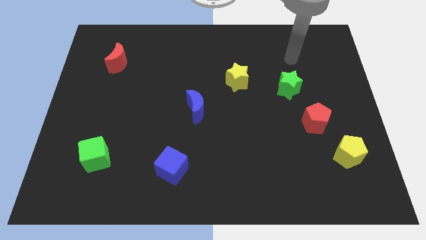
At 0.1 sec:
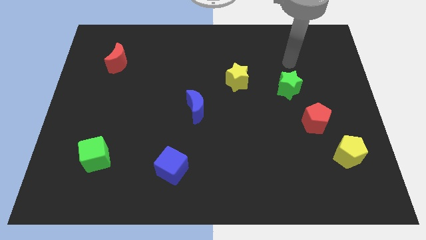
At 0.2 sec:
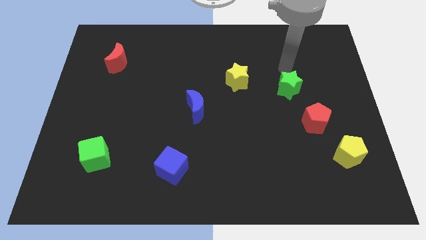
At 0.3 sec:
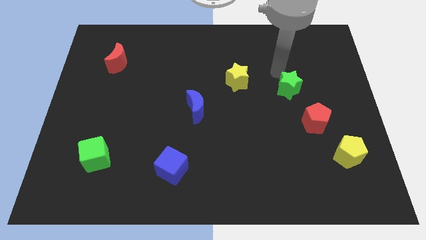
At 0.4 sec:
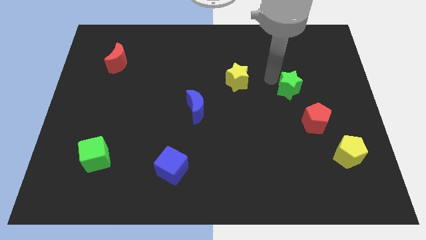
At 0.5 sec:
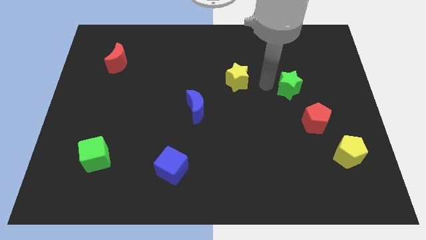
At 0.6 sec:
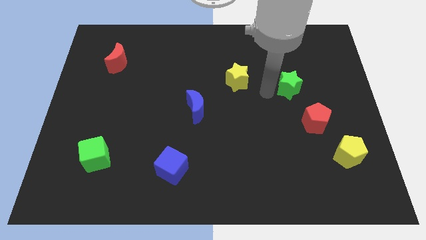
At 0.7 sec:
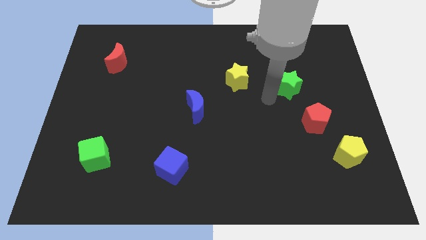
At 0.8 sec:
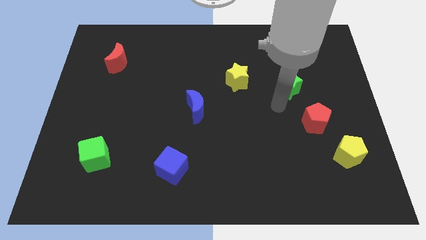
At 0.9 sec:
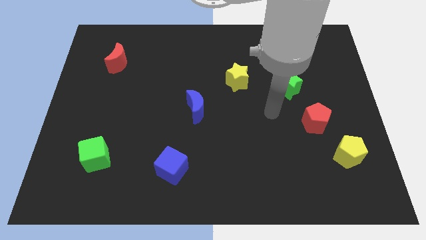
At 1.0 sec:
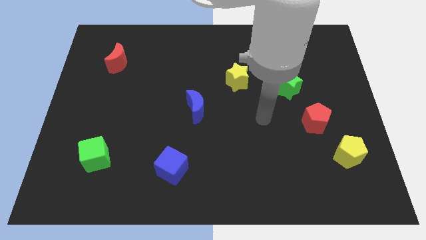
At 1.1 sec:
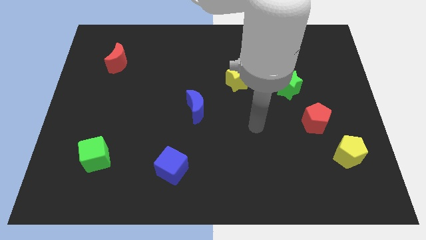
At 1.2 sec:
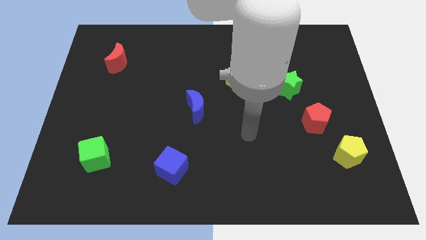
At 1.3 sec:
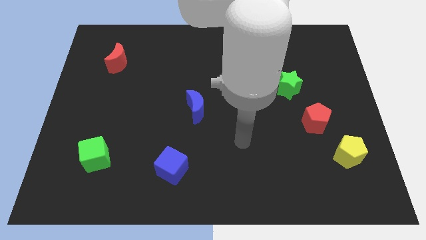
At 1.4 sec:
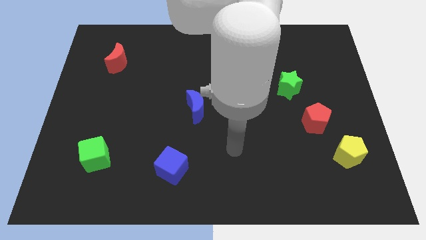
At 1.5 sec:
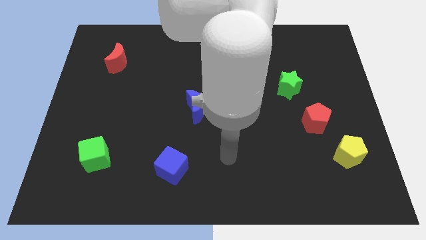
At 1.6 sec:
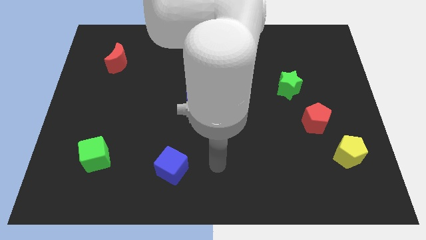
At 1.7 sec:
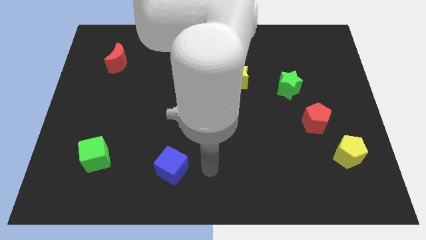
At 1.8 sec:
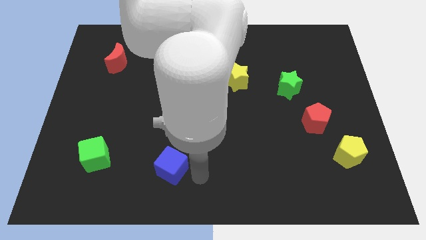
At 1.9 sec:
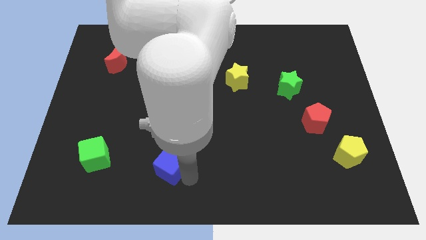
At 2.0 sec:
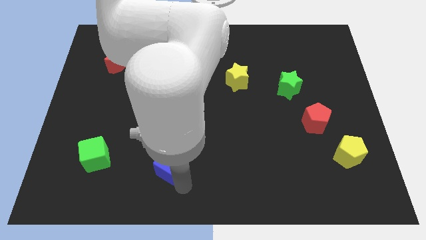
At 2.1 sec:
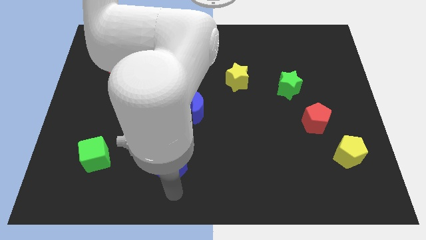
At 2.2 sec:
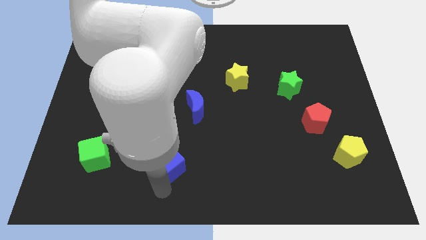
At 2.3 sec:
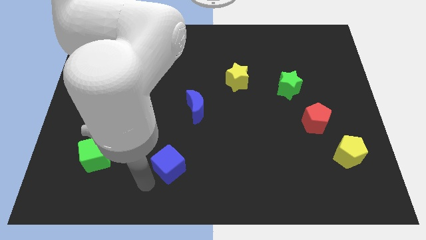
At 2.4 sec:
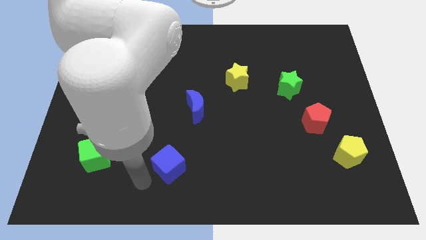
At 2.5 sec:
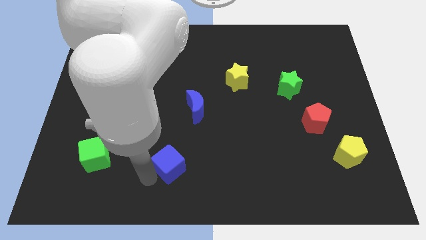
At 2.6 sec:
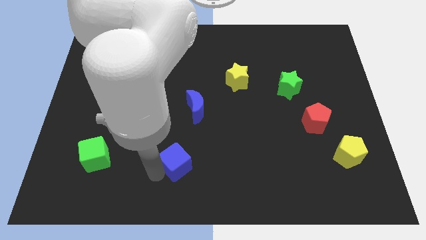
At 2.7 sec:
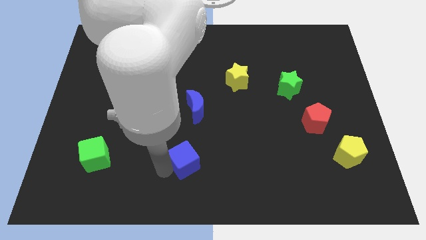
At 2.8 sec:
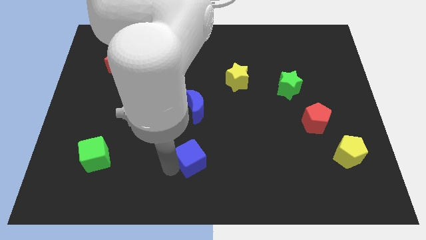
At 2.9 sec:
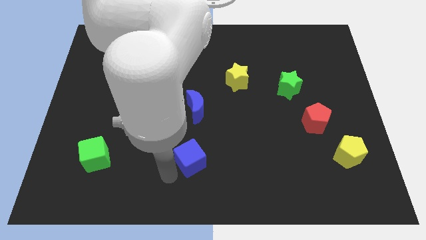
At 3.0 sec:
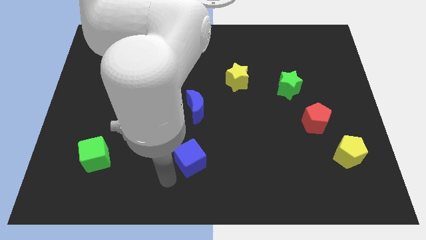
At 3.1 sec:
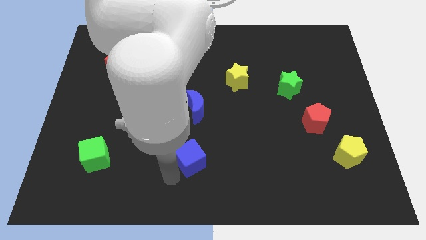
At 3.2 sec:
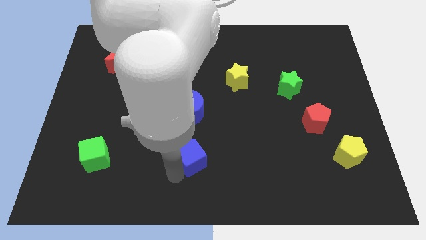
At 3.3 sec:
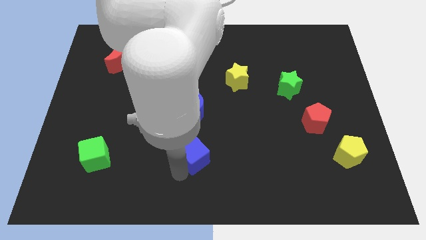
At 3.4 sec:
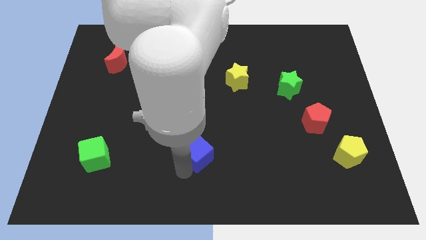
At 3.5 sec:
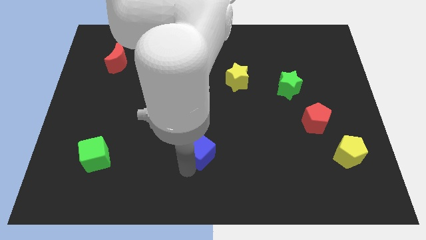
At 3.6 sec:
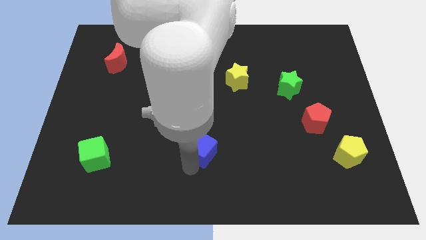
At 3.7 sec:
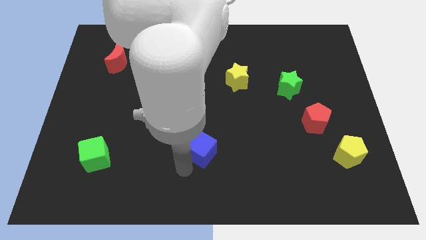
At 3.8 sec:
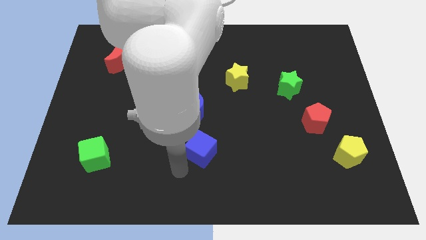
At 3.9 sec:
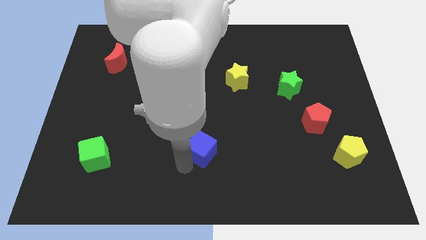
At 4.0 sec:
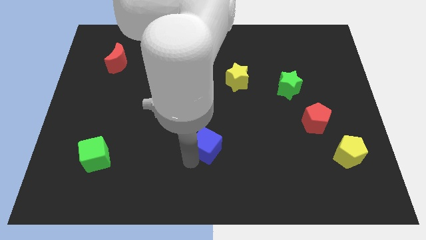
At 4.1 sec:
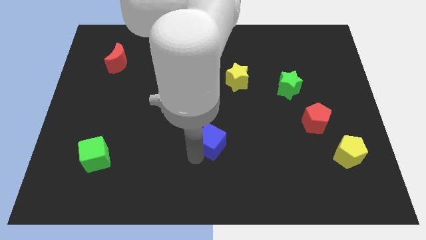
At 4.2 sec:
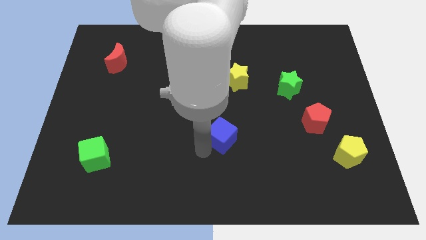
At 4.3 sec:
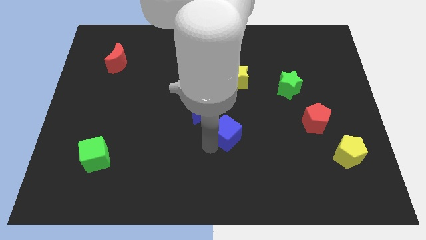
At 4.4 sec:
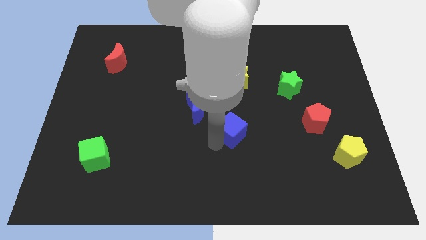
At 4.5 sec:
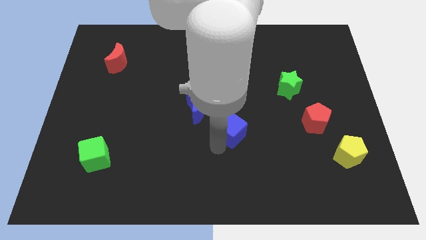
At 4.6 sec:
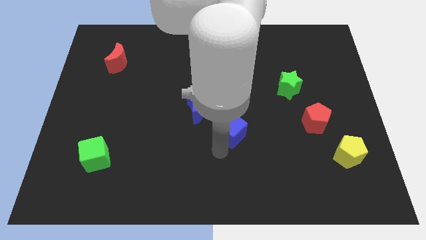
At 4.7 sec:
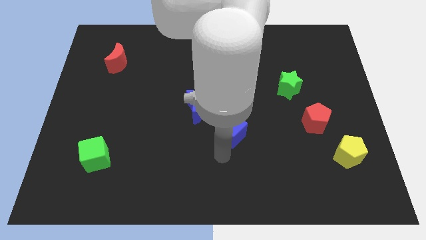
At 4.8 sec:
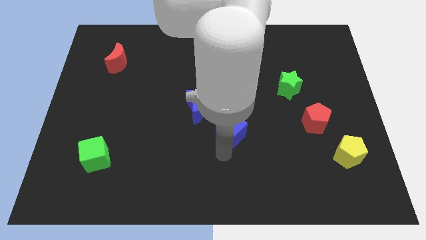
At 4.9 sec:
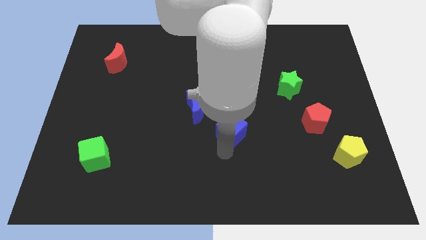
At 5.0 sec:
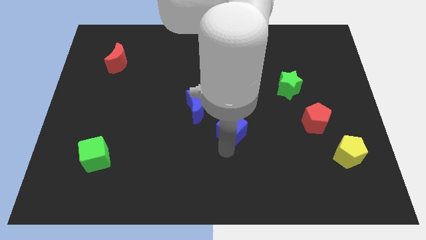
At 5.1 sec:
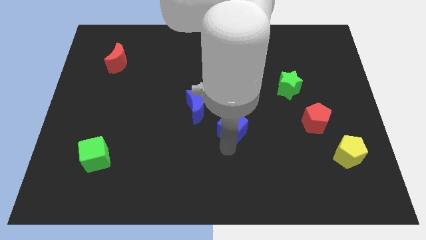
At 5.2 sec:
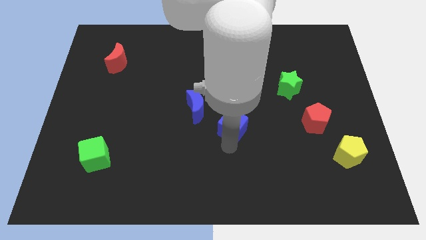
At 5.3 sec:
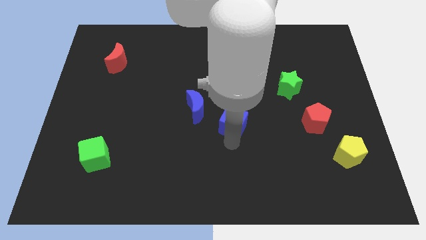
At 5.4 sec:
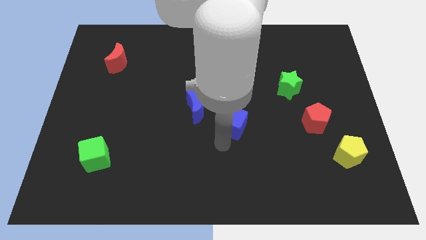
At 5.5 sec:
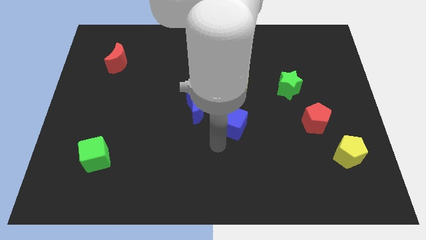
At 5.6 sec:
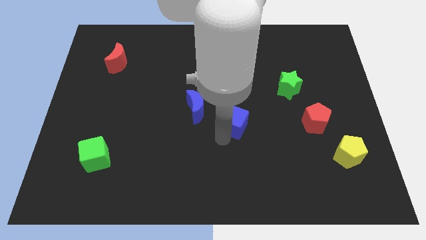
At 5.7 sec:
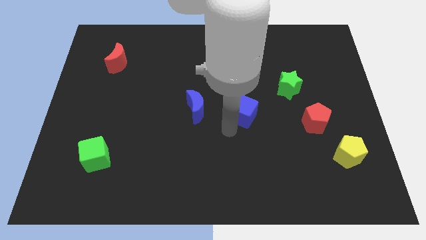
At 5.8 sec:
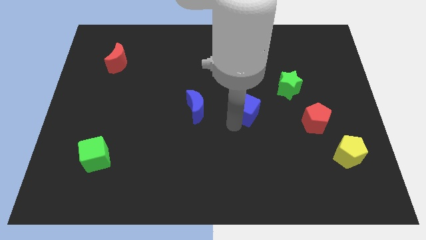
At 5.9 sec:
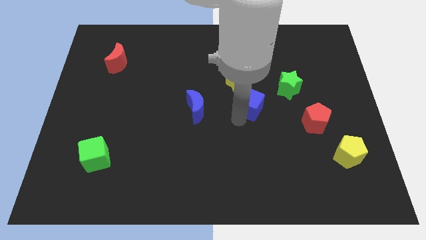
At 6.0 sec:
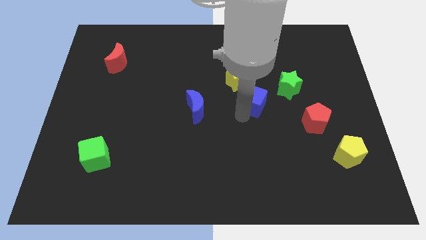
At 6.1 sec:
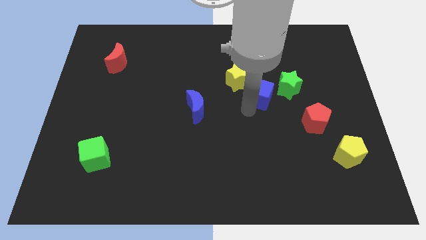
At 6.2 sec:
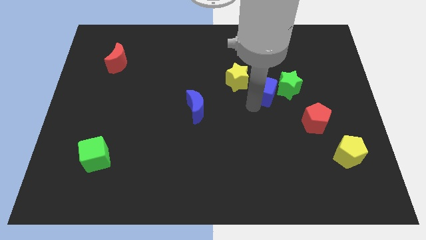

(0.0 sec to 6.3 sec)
put the blue cube just right of the yellow star

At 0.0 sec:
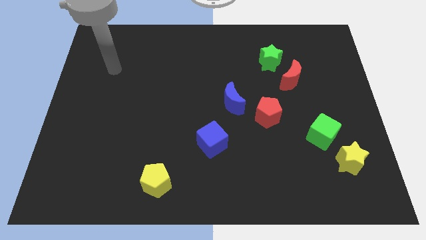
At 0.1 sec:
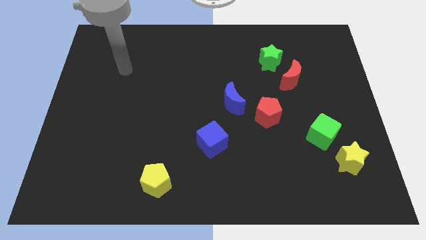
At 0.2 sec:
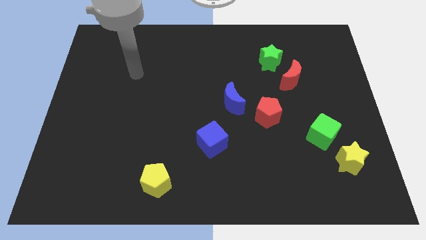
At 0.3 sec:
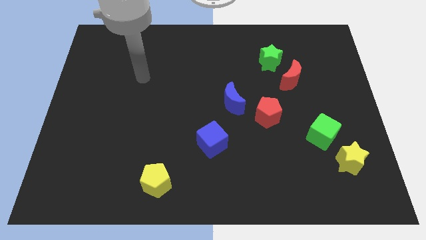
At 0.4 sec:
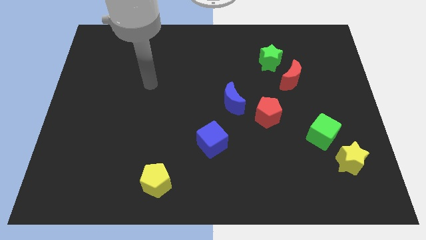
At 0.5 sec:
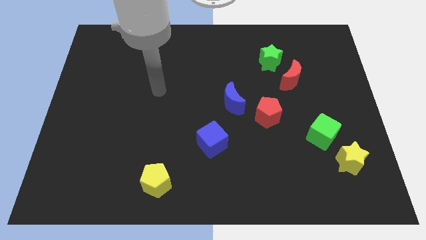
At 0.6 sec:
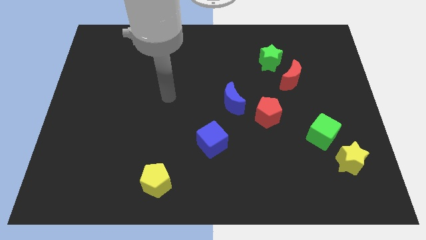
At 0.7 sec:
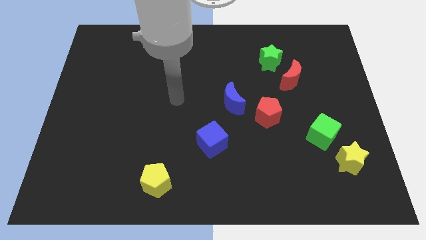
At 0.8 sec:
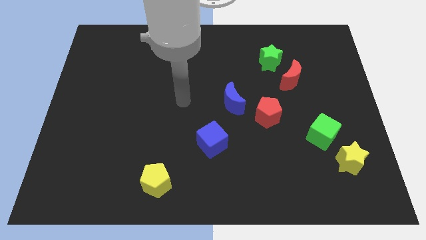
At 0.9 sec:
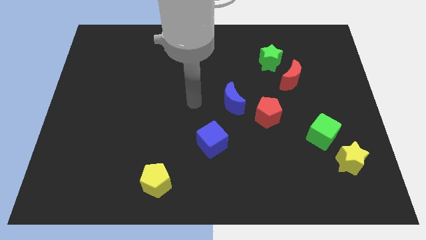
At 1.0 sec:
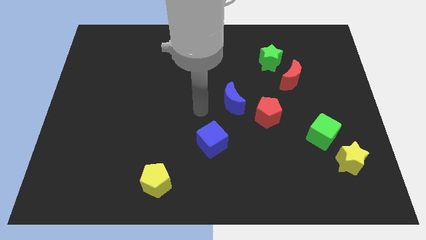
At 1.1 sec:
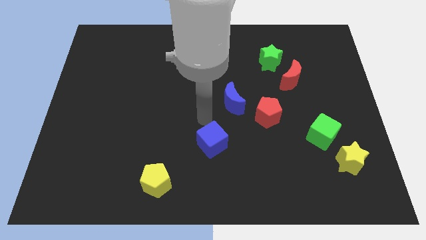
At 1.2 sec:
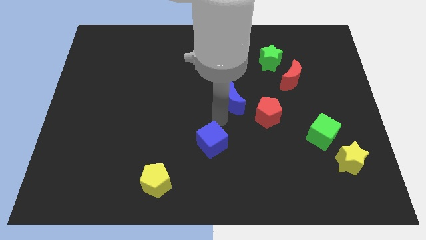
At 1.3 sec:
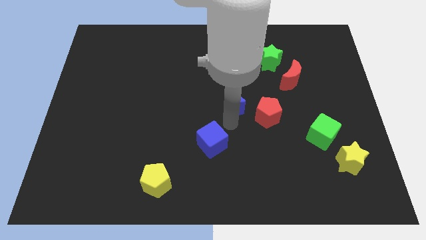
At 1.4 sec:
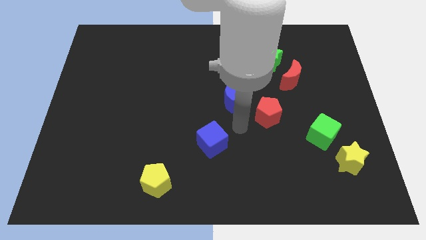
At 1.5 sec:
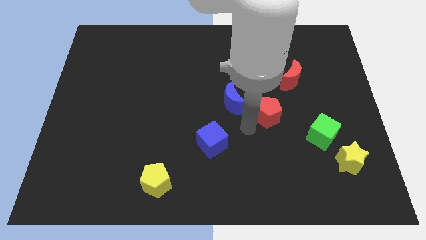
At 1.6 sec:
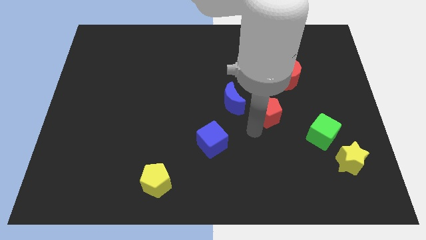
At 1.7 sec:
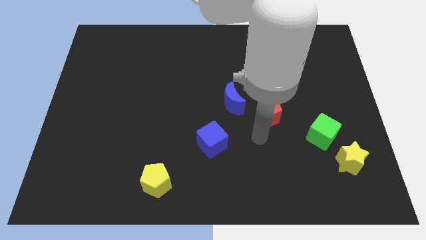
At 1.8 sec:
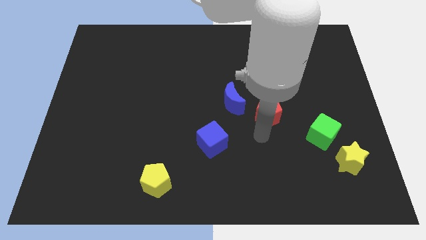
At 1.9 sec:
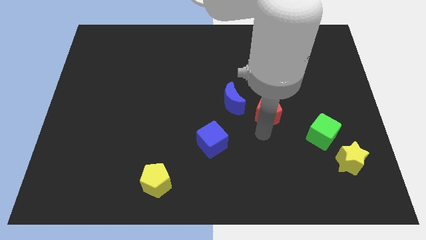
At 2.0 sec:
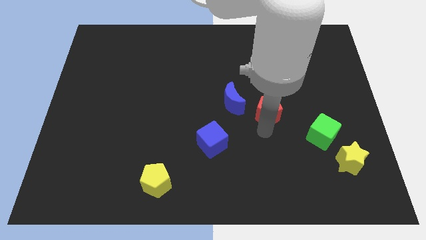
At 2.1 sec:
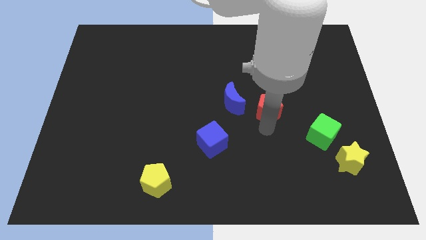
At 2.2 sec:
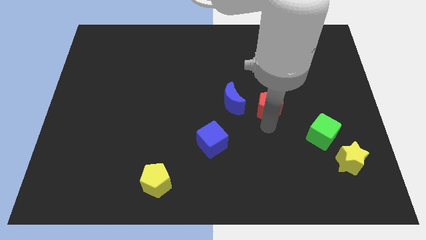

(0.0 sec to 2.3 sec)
put the red pentagon to the bottom of the green star
